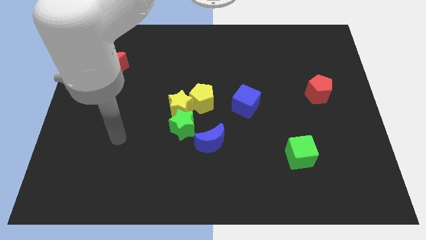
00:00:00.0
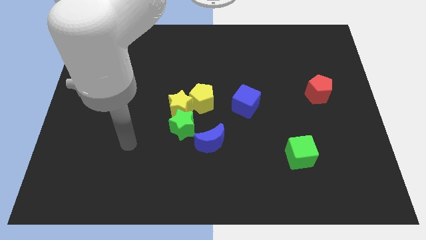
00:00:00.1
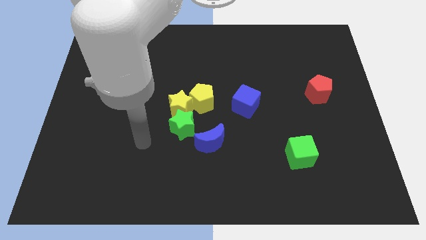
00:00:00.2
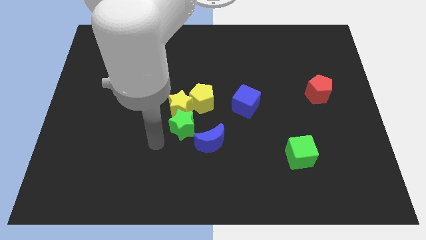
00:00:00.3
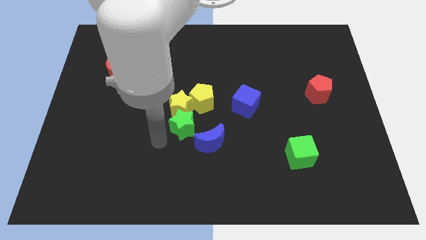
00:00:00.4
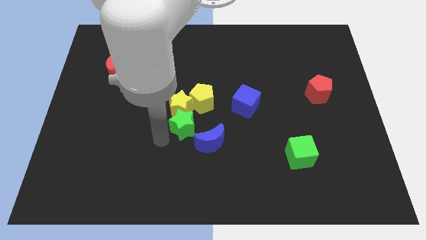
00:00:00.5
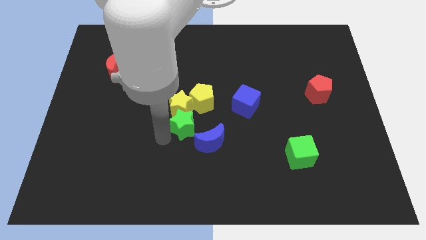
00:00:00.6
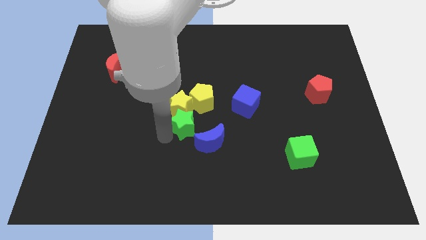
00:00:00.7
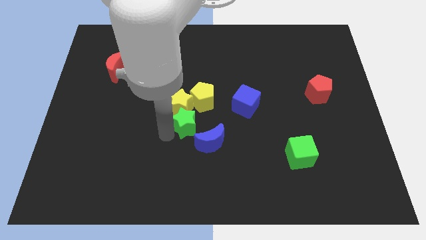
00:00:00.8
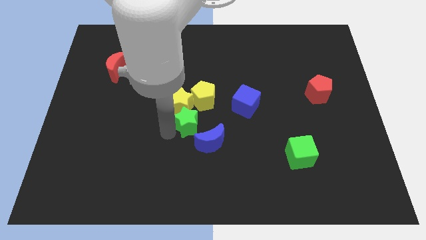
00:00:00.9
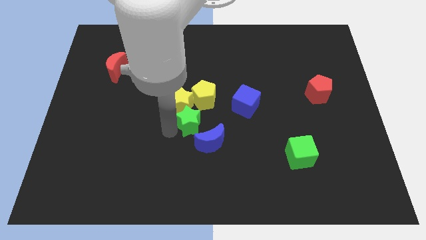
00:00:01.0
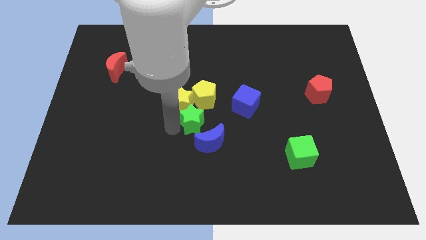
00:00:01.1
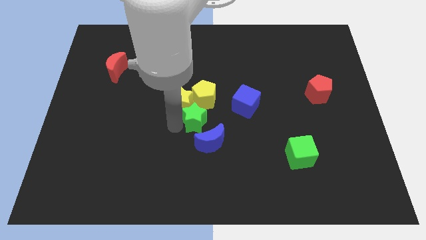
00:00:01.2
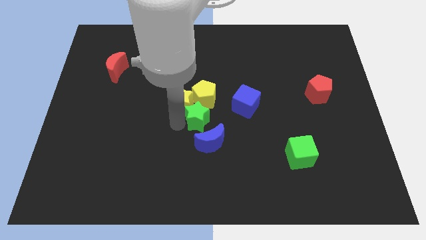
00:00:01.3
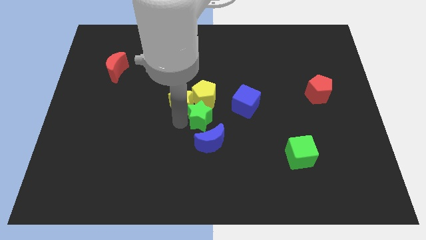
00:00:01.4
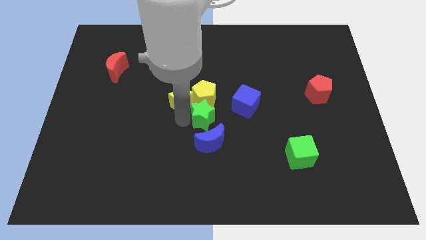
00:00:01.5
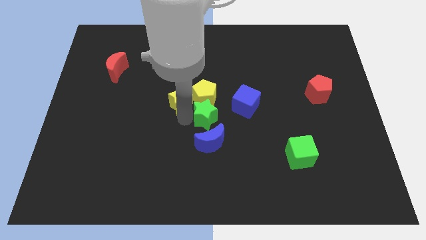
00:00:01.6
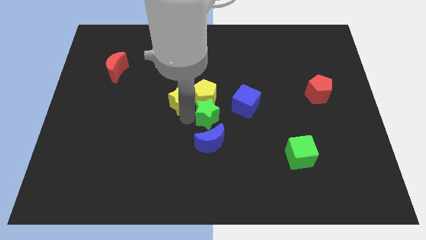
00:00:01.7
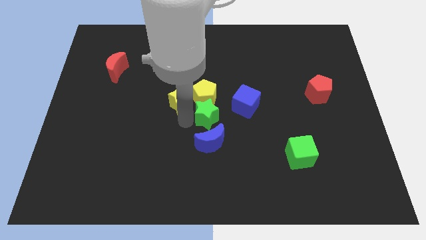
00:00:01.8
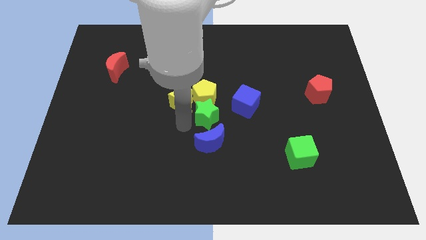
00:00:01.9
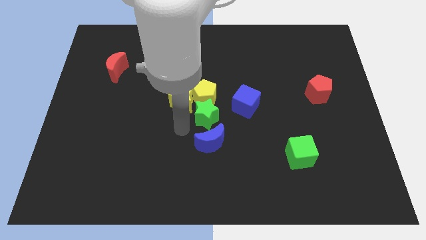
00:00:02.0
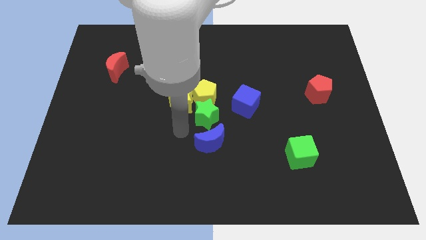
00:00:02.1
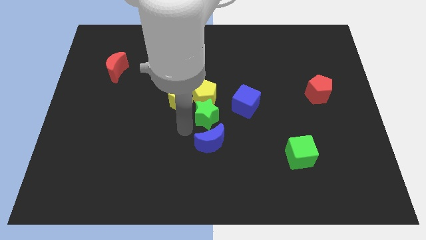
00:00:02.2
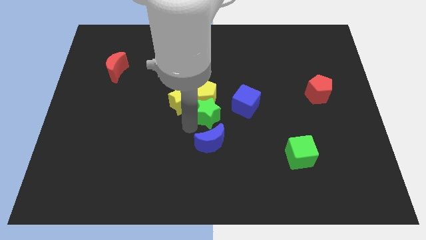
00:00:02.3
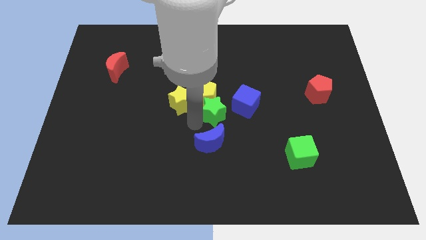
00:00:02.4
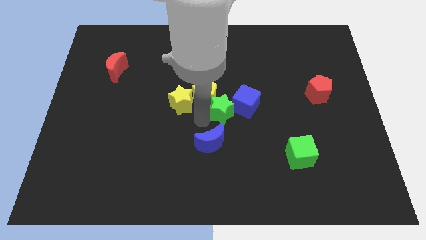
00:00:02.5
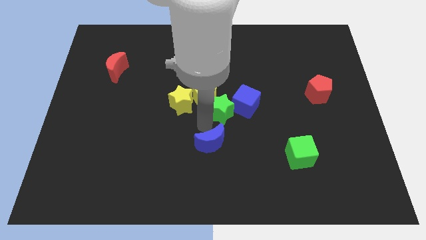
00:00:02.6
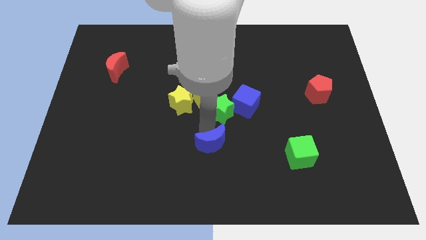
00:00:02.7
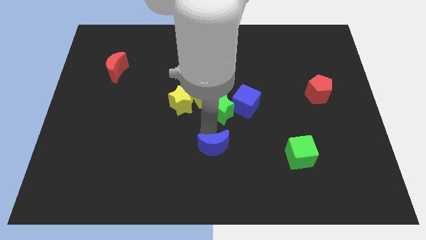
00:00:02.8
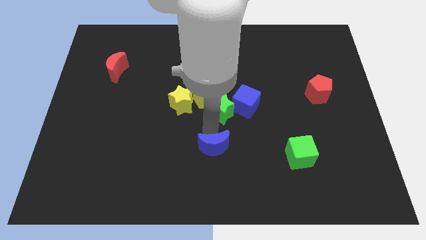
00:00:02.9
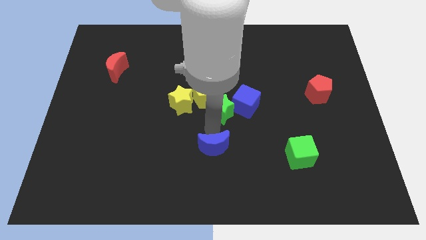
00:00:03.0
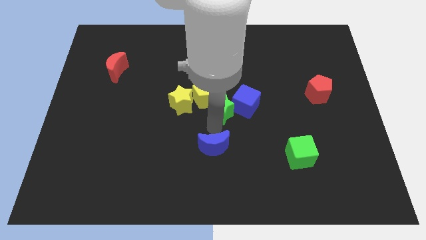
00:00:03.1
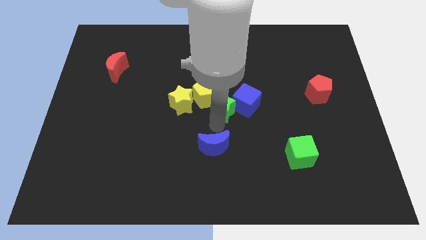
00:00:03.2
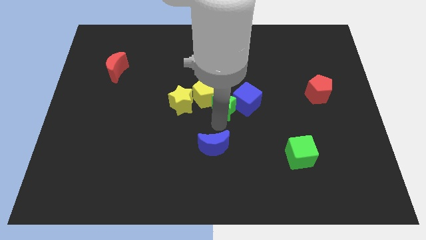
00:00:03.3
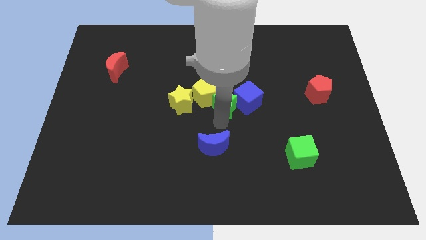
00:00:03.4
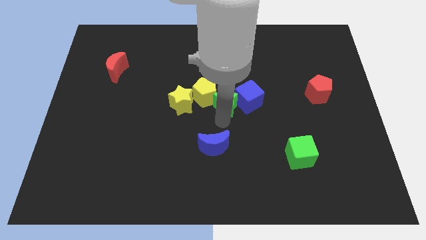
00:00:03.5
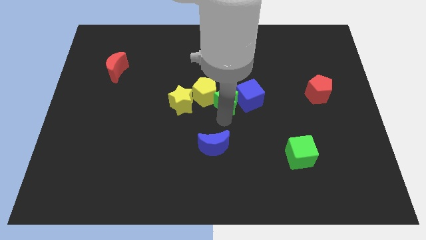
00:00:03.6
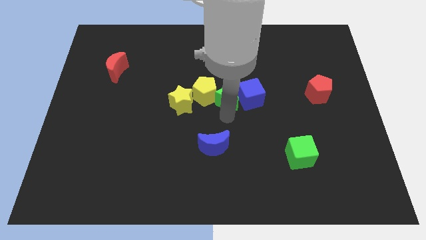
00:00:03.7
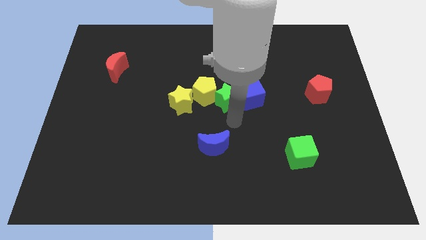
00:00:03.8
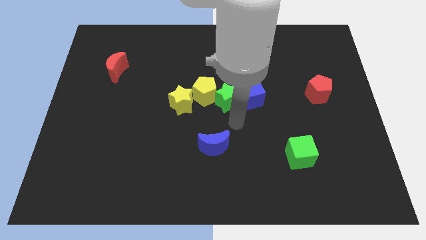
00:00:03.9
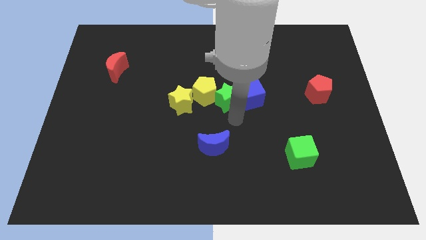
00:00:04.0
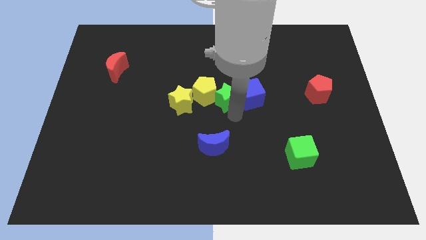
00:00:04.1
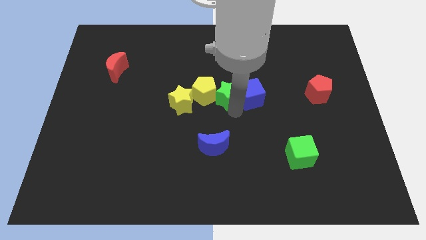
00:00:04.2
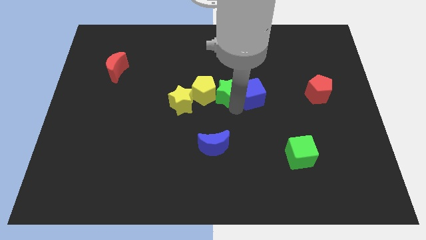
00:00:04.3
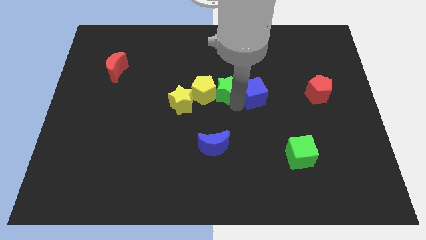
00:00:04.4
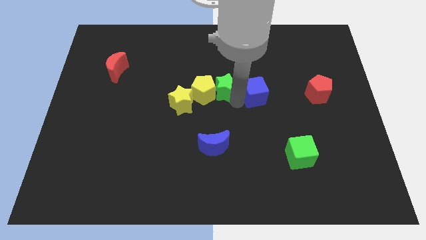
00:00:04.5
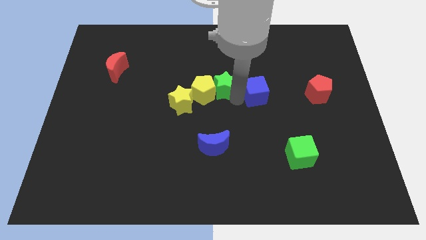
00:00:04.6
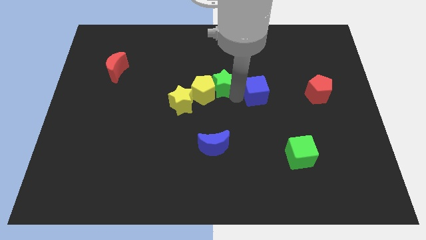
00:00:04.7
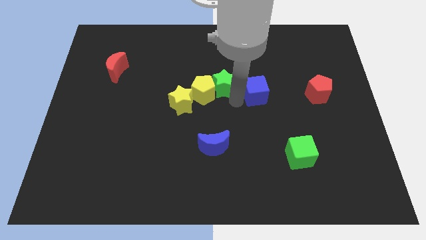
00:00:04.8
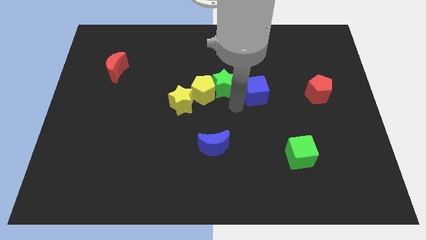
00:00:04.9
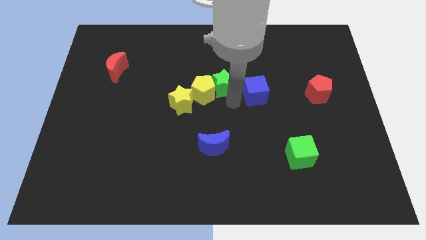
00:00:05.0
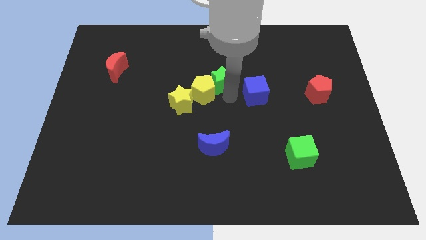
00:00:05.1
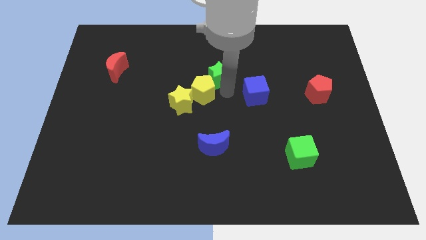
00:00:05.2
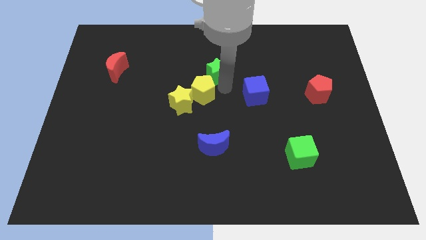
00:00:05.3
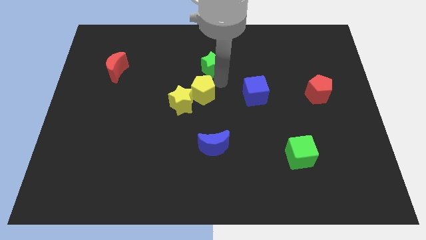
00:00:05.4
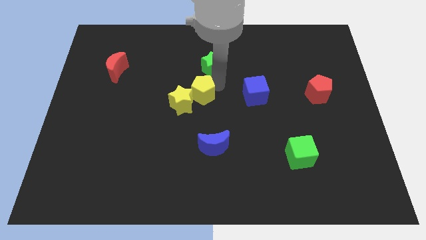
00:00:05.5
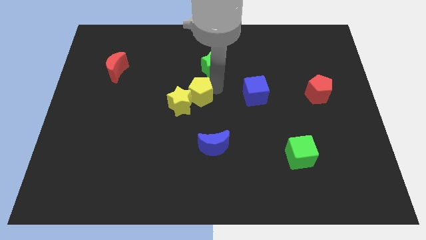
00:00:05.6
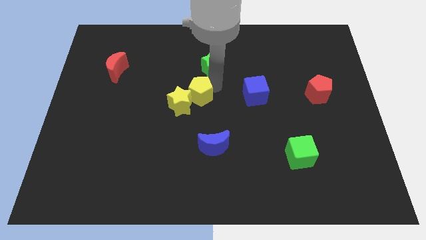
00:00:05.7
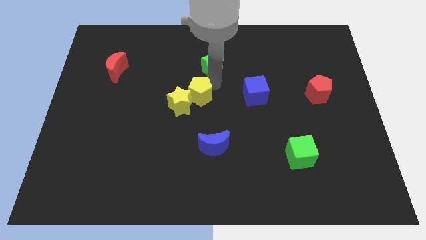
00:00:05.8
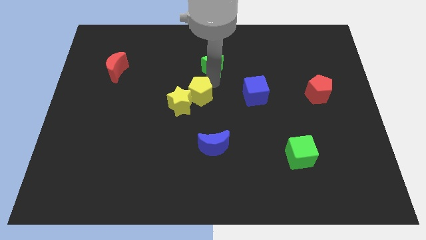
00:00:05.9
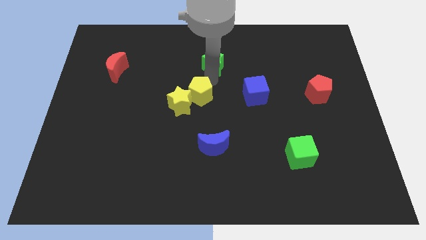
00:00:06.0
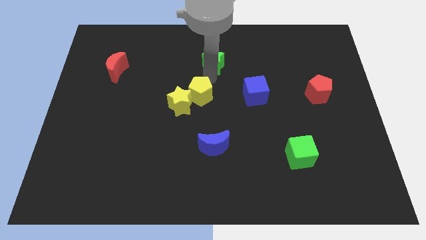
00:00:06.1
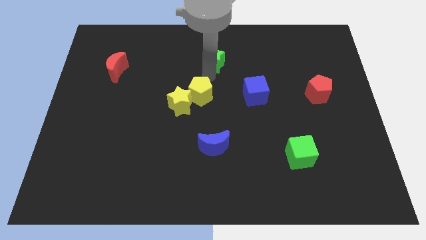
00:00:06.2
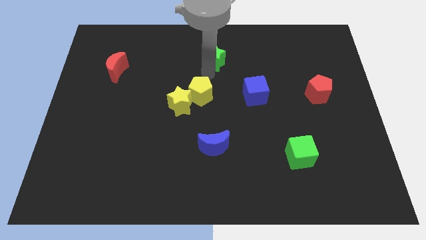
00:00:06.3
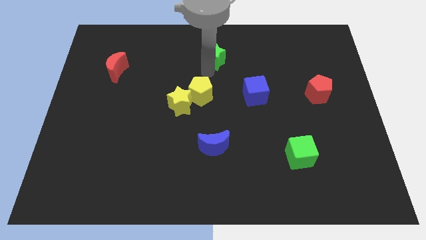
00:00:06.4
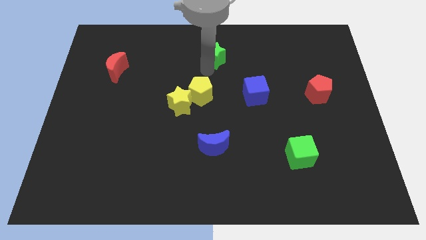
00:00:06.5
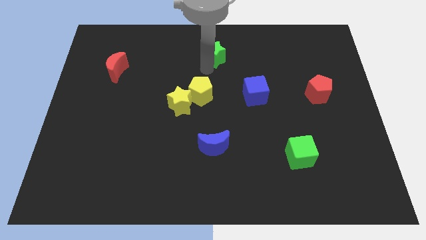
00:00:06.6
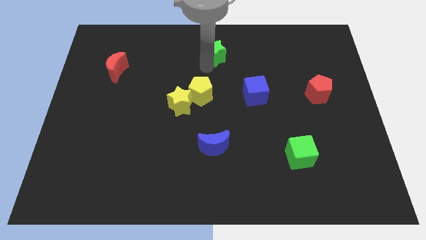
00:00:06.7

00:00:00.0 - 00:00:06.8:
slide the green star to the towards your base

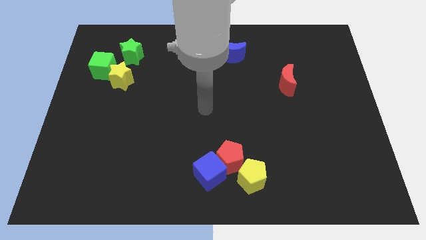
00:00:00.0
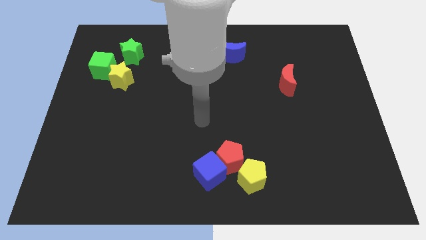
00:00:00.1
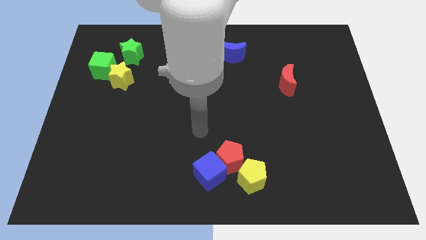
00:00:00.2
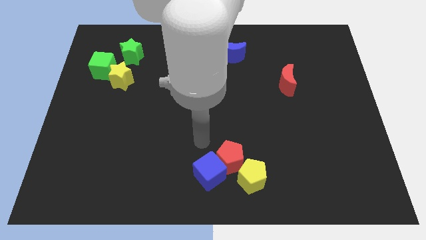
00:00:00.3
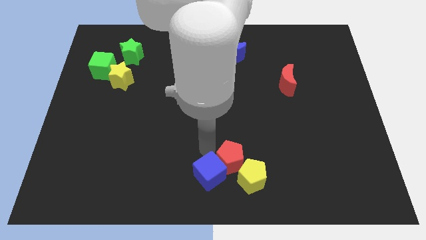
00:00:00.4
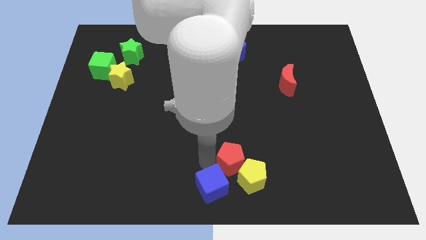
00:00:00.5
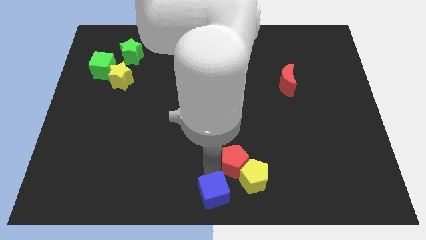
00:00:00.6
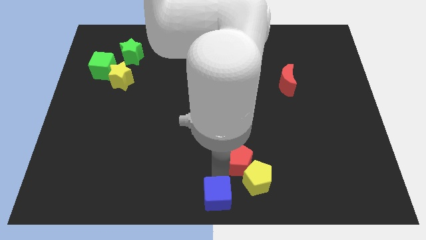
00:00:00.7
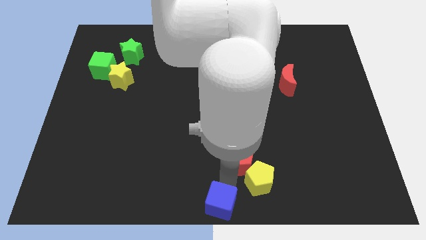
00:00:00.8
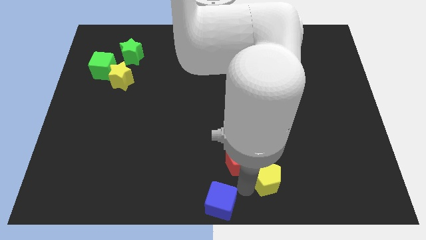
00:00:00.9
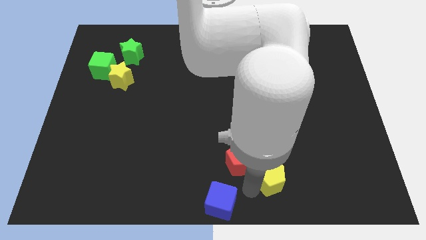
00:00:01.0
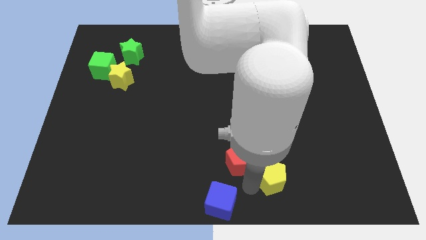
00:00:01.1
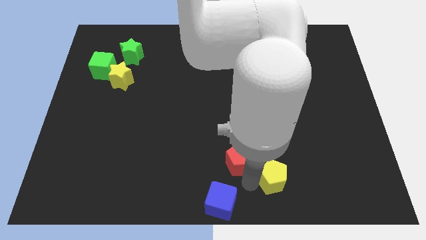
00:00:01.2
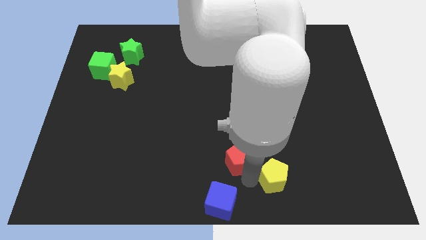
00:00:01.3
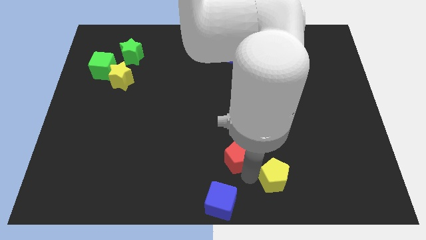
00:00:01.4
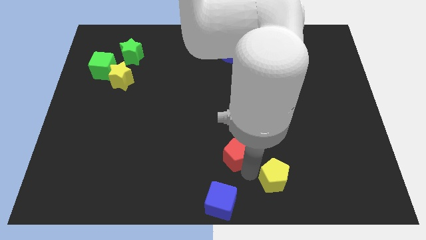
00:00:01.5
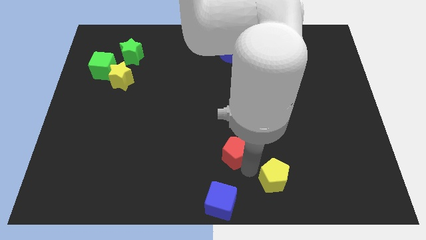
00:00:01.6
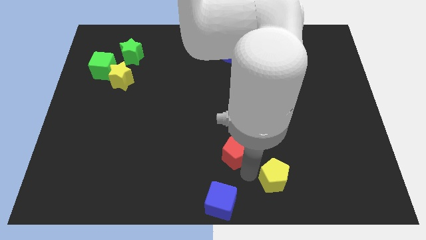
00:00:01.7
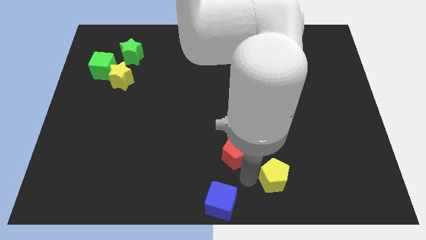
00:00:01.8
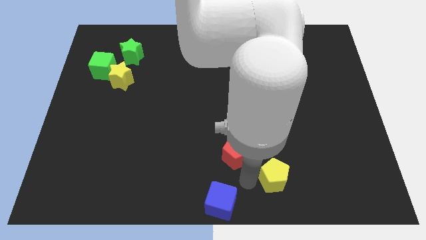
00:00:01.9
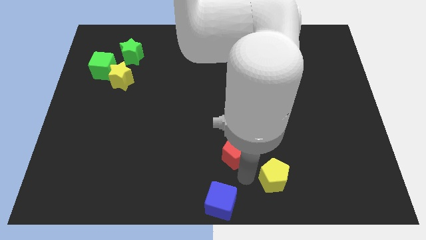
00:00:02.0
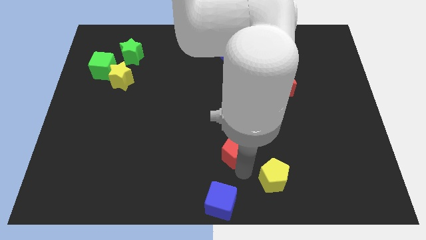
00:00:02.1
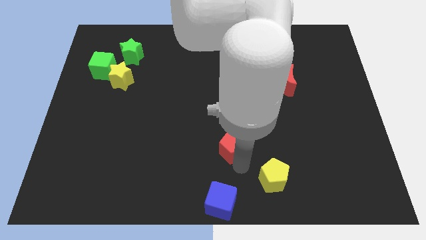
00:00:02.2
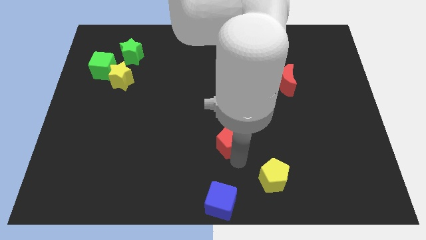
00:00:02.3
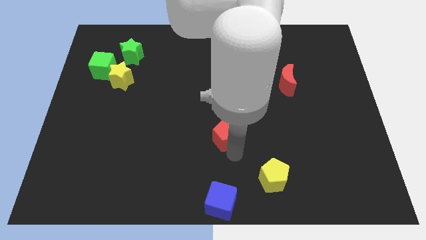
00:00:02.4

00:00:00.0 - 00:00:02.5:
slide the red pentagon to the center
